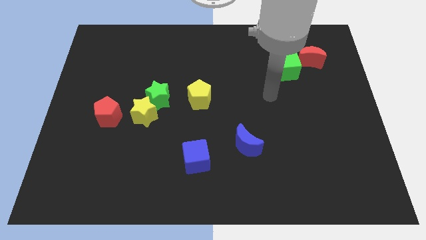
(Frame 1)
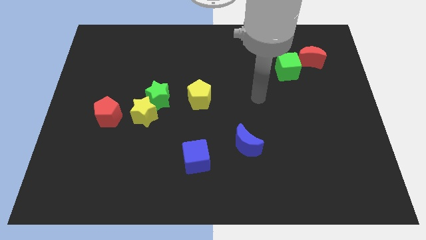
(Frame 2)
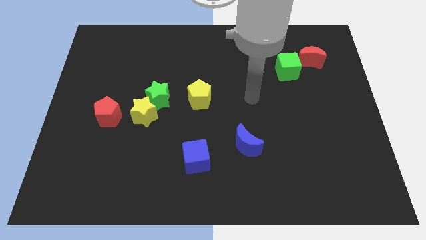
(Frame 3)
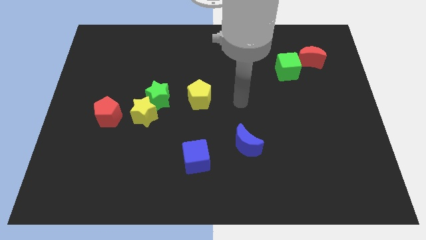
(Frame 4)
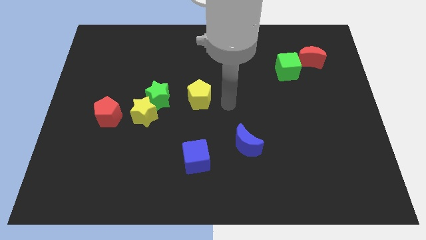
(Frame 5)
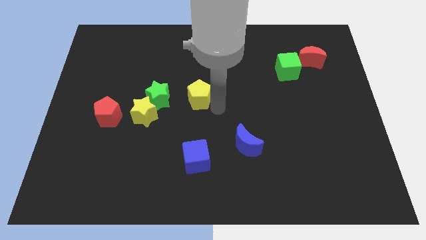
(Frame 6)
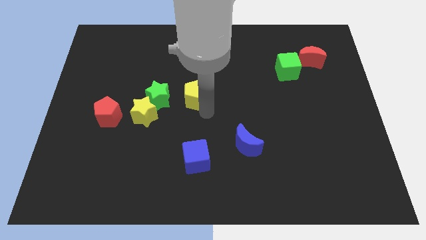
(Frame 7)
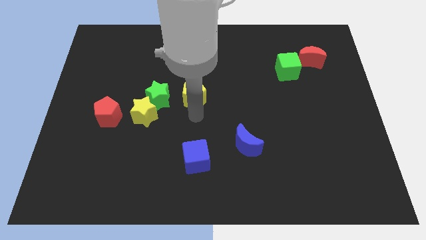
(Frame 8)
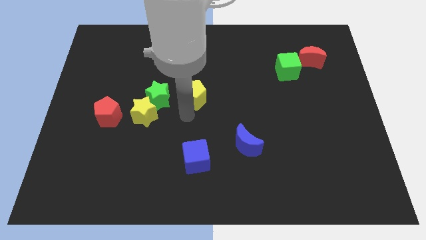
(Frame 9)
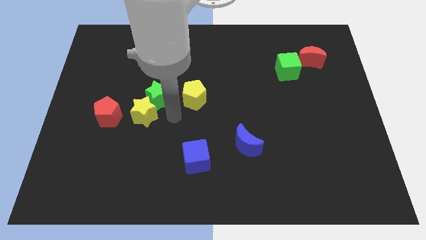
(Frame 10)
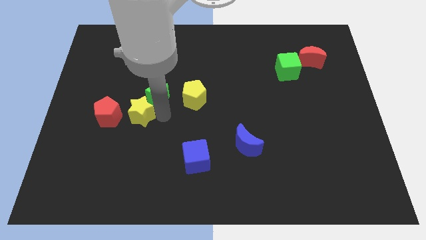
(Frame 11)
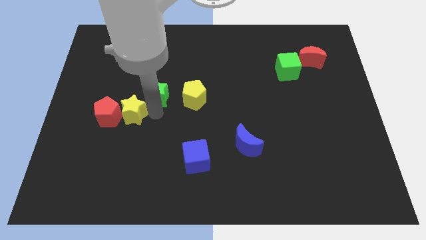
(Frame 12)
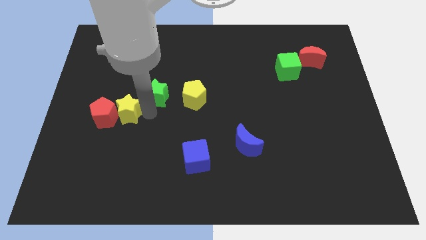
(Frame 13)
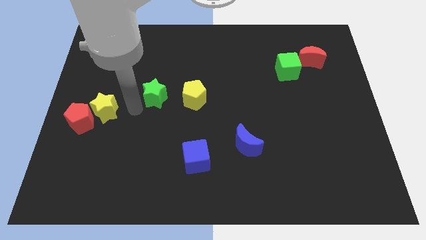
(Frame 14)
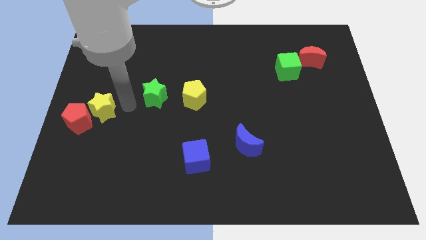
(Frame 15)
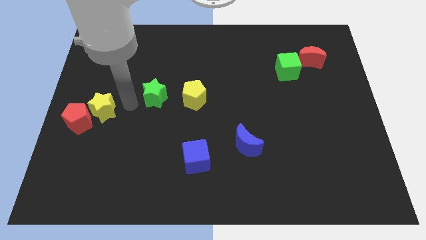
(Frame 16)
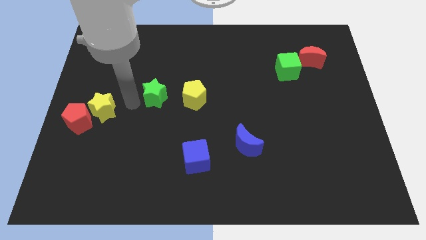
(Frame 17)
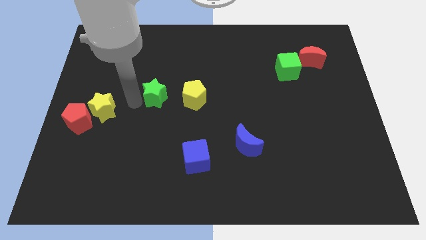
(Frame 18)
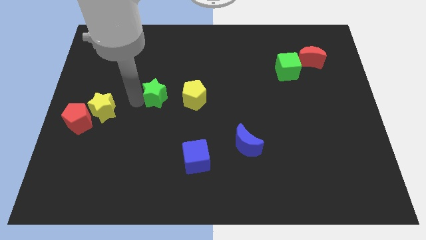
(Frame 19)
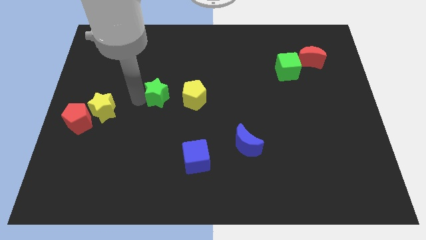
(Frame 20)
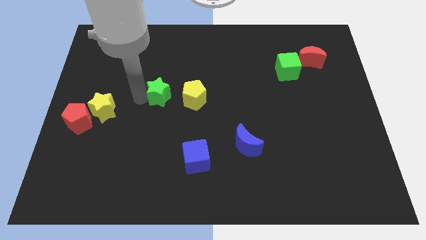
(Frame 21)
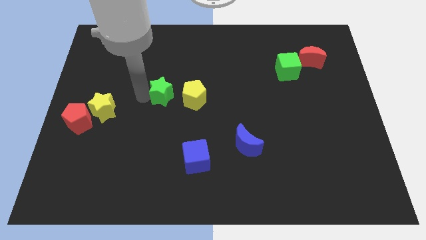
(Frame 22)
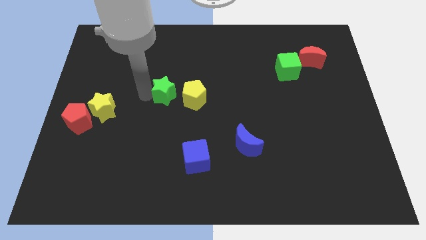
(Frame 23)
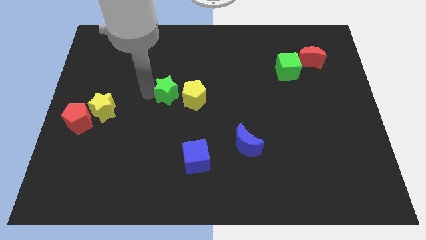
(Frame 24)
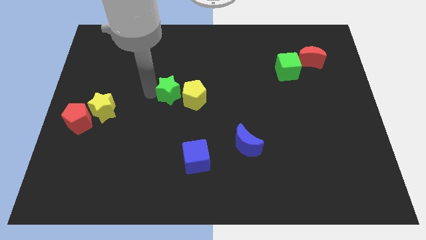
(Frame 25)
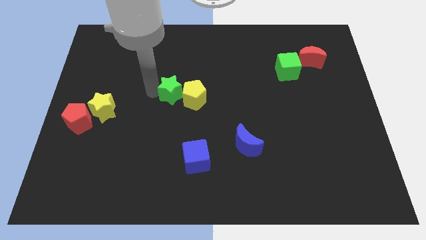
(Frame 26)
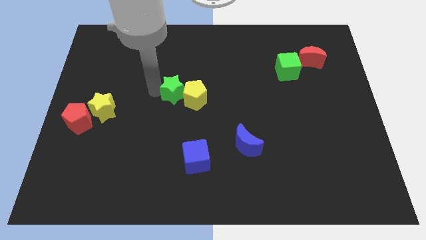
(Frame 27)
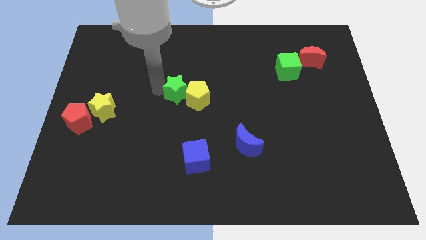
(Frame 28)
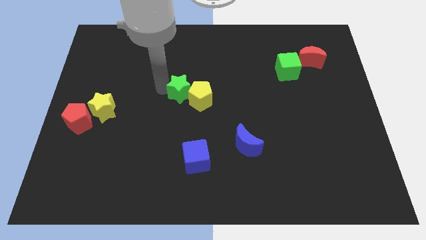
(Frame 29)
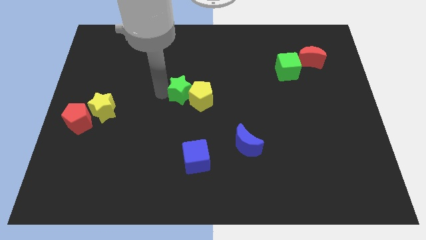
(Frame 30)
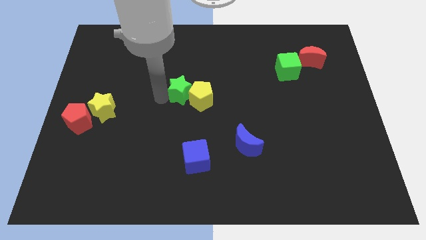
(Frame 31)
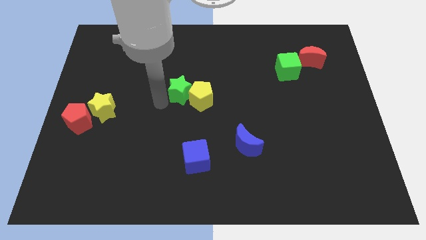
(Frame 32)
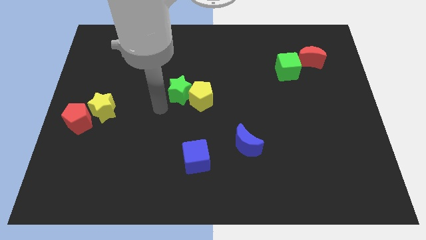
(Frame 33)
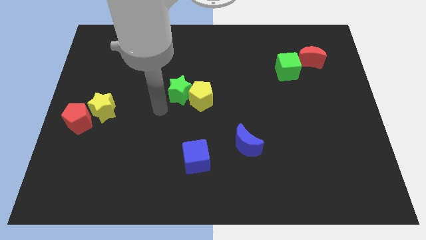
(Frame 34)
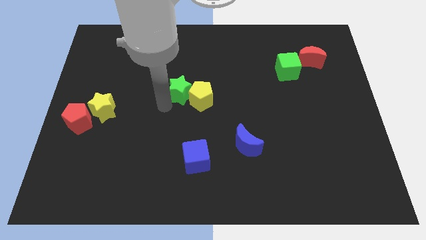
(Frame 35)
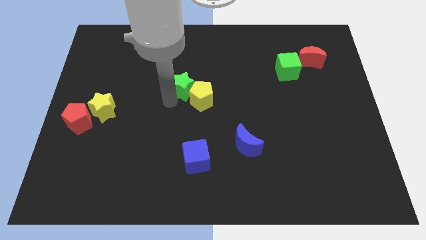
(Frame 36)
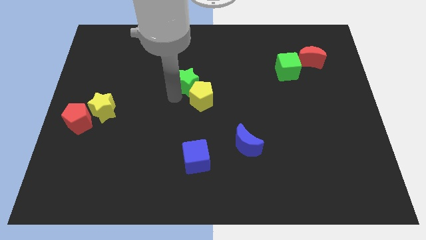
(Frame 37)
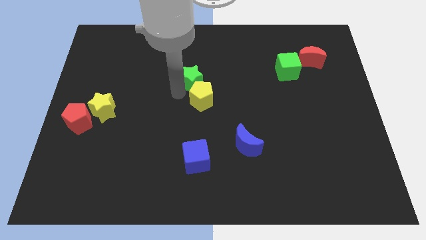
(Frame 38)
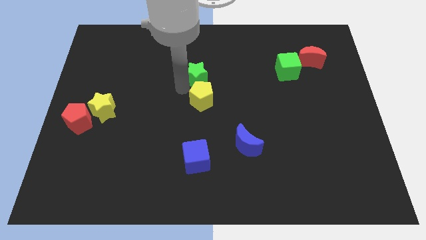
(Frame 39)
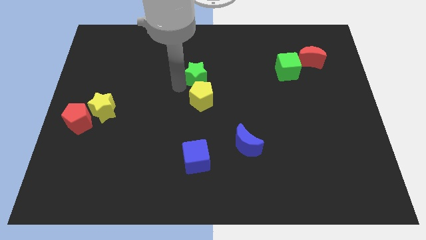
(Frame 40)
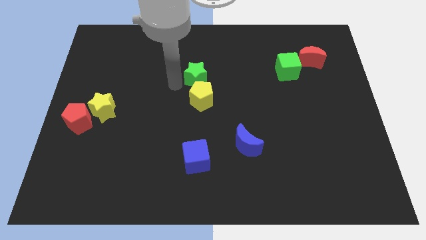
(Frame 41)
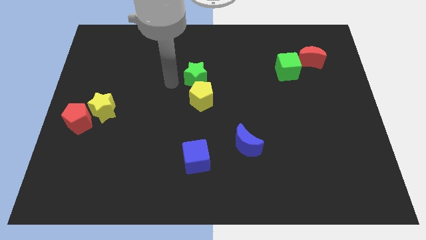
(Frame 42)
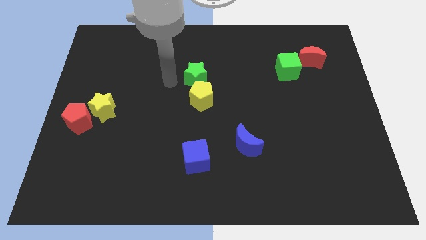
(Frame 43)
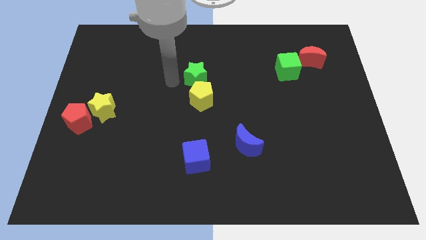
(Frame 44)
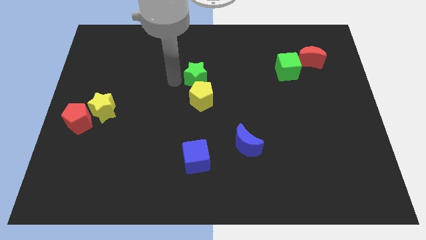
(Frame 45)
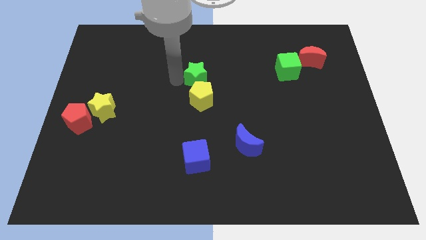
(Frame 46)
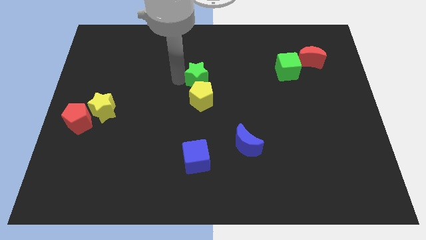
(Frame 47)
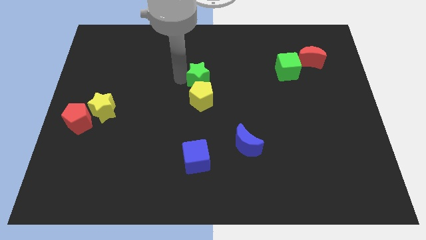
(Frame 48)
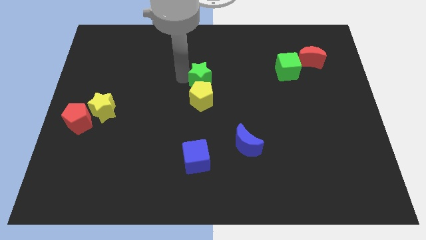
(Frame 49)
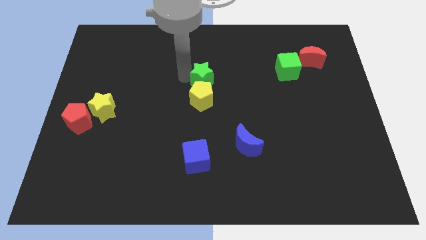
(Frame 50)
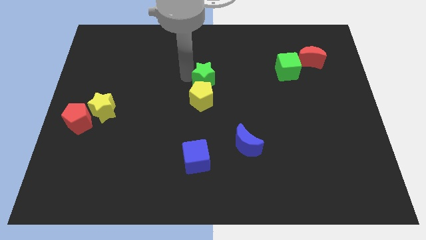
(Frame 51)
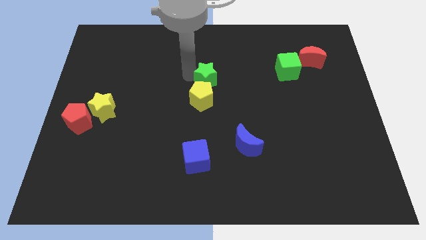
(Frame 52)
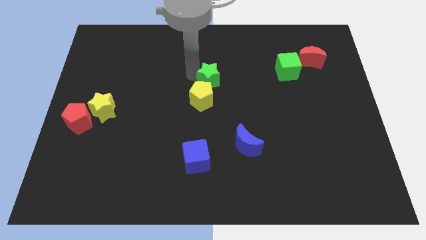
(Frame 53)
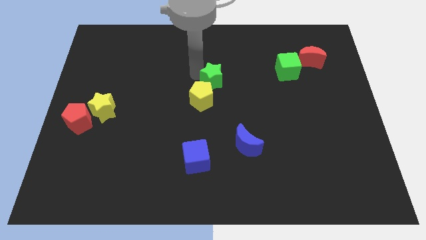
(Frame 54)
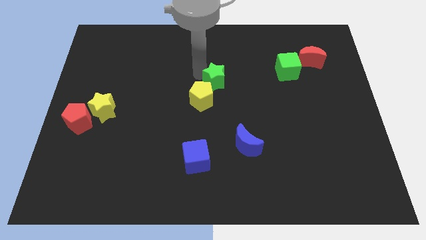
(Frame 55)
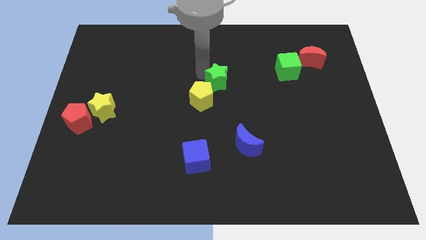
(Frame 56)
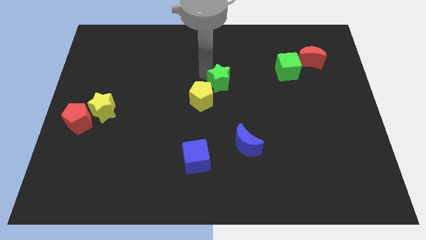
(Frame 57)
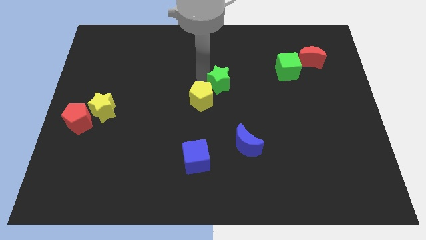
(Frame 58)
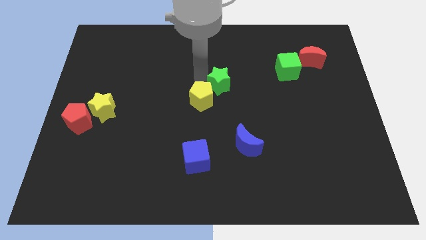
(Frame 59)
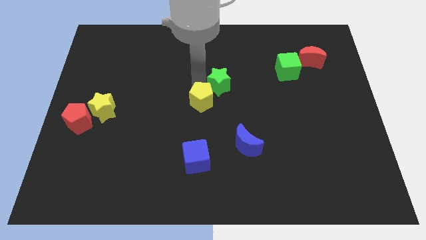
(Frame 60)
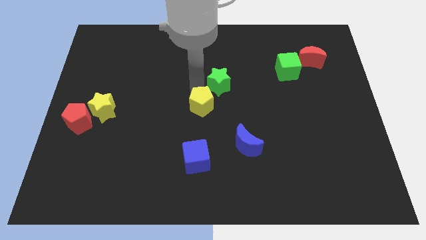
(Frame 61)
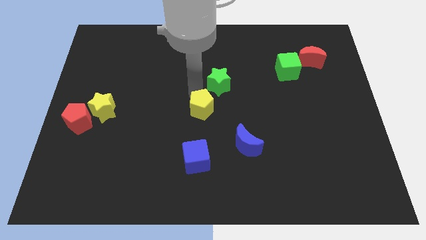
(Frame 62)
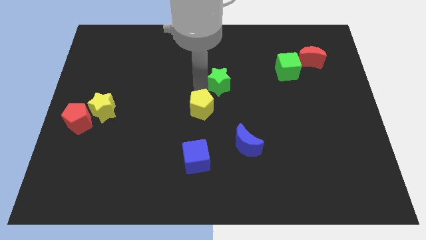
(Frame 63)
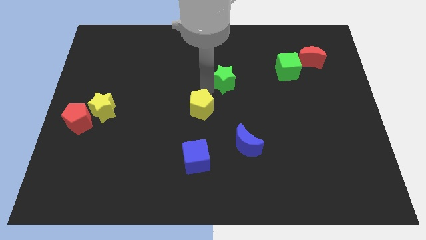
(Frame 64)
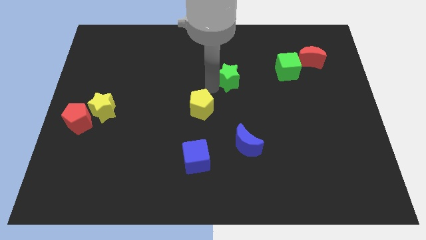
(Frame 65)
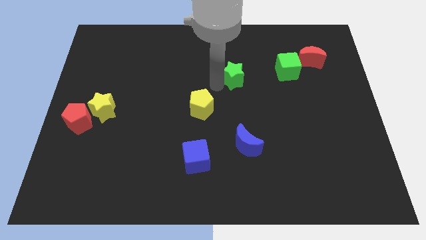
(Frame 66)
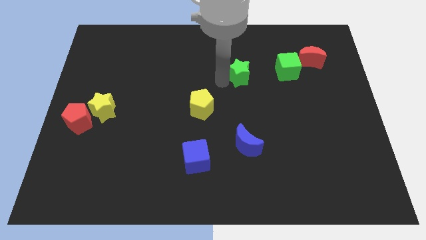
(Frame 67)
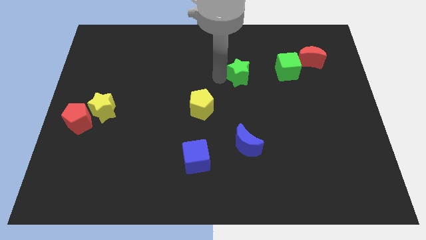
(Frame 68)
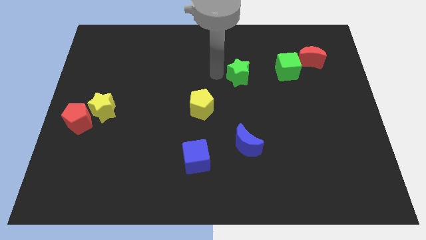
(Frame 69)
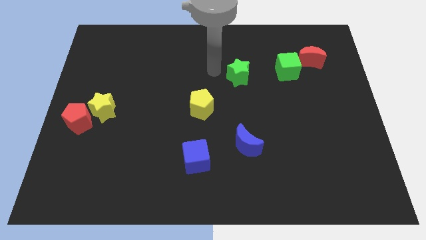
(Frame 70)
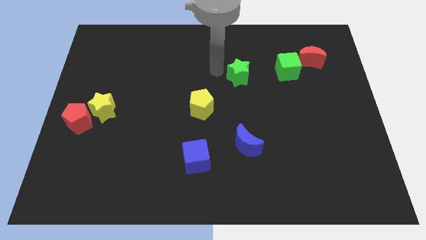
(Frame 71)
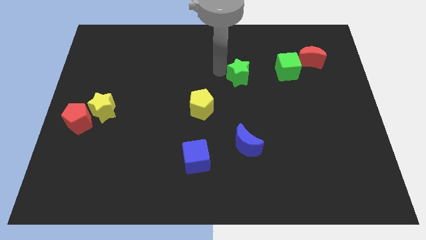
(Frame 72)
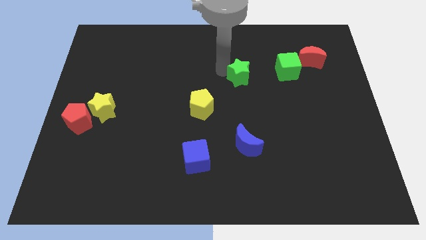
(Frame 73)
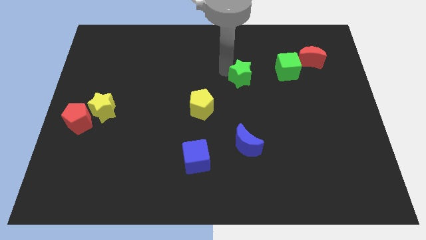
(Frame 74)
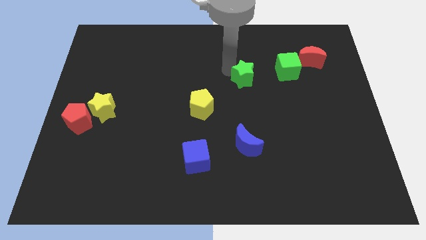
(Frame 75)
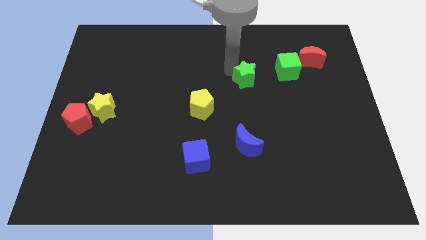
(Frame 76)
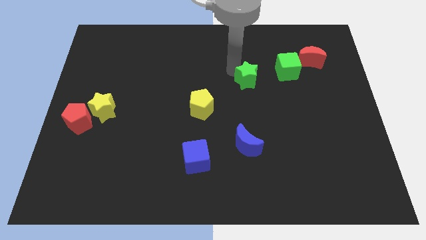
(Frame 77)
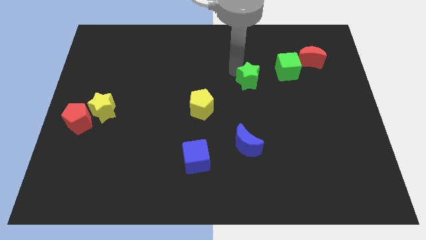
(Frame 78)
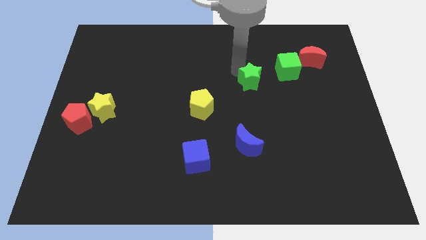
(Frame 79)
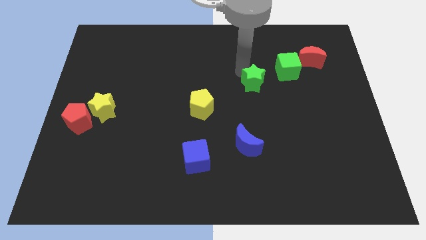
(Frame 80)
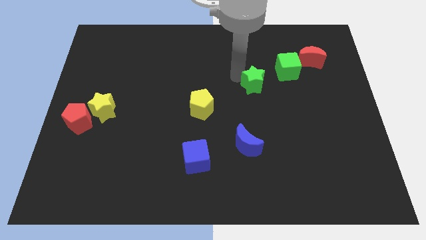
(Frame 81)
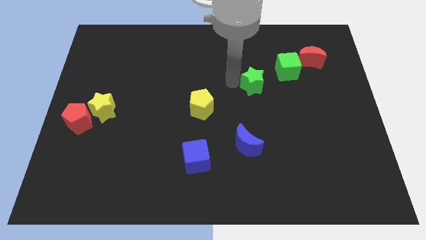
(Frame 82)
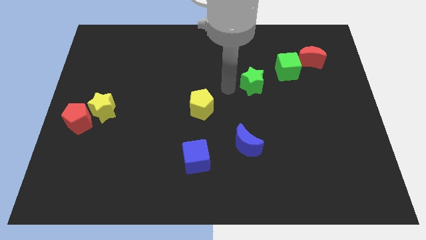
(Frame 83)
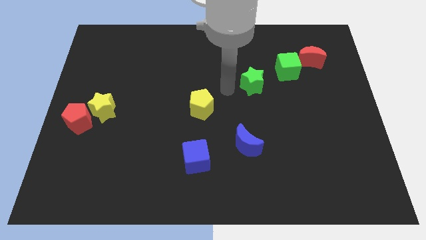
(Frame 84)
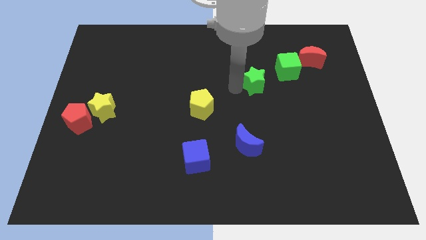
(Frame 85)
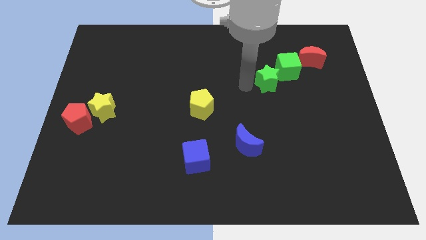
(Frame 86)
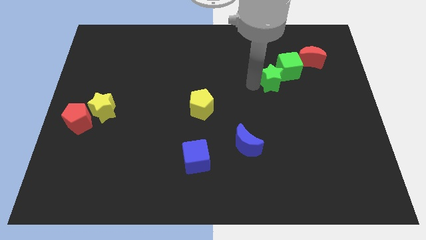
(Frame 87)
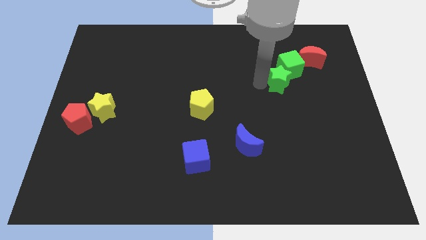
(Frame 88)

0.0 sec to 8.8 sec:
move the green star to the bottom left side of the red moon
